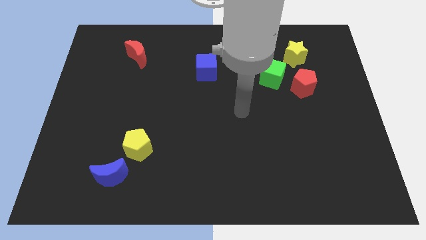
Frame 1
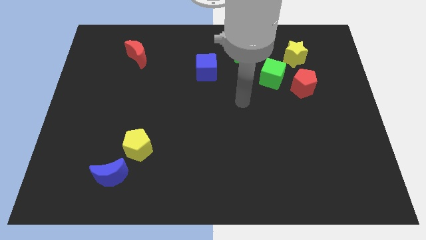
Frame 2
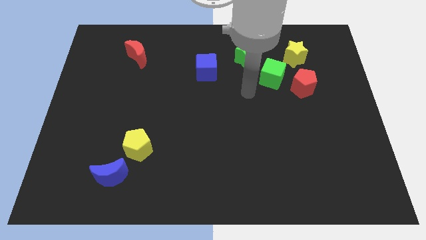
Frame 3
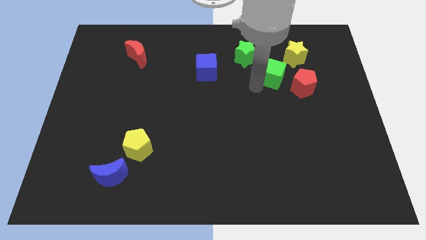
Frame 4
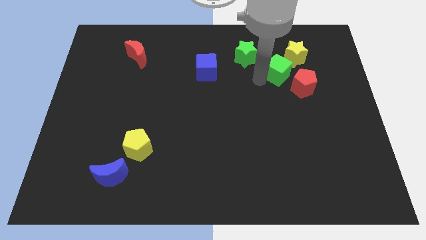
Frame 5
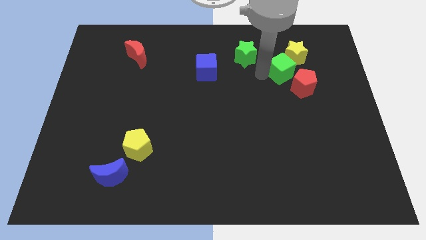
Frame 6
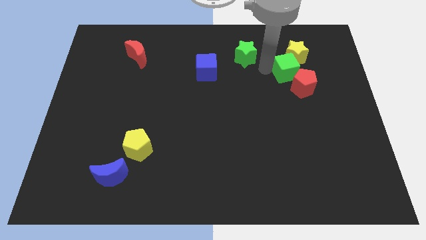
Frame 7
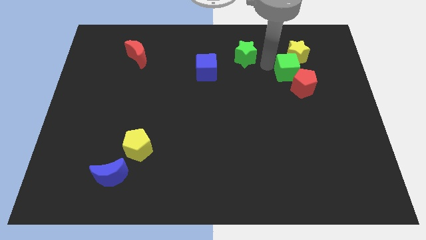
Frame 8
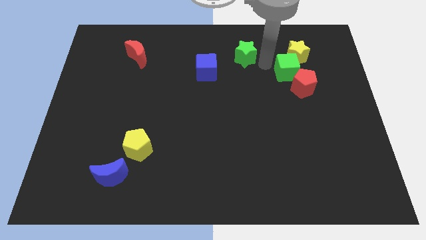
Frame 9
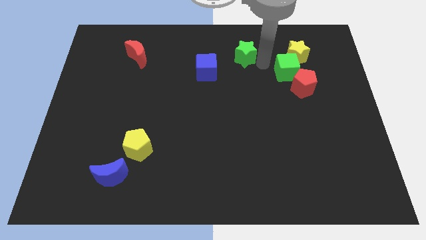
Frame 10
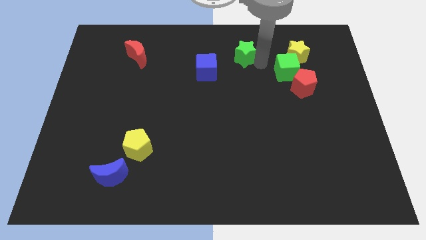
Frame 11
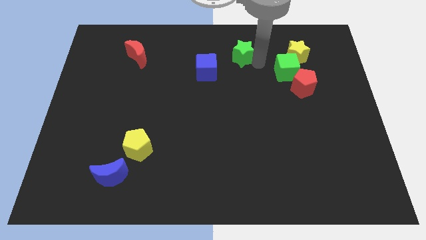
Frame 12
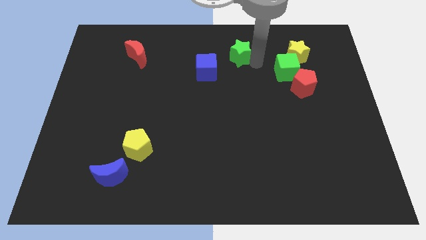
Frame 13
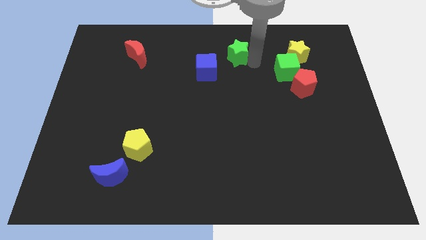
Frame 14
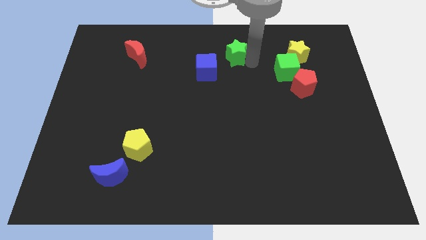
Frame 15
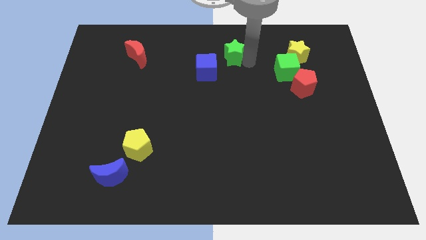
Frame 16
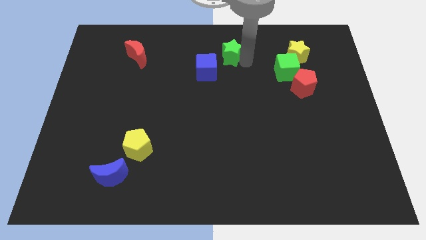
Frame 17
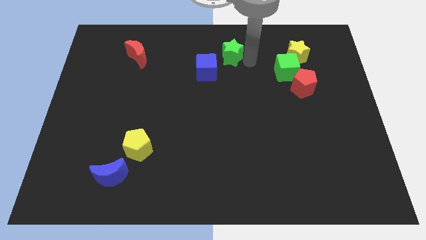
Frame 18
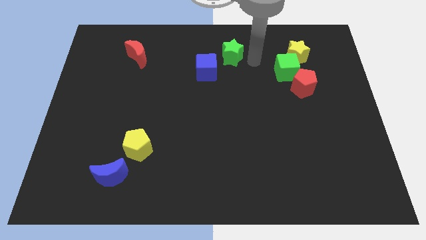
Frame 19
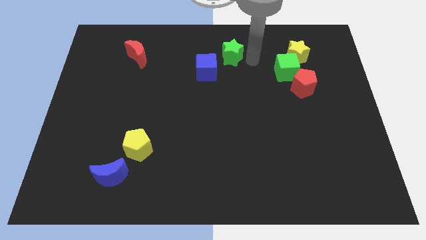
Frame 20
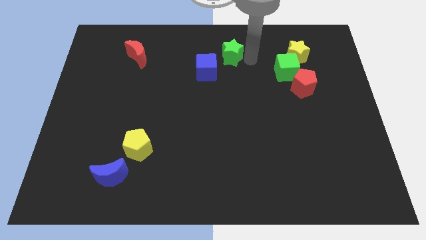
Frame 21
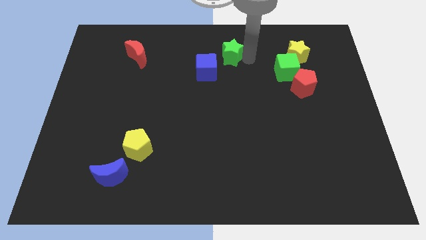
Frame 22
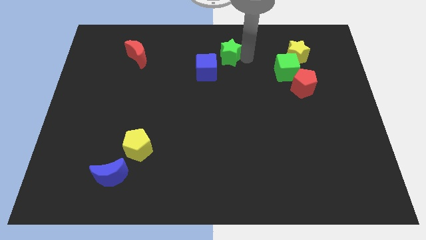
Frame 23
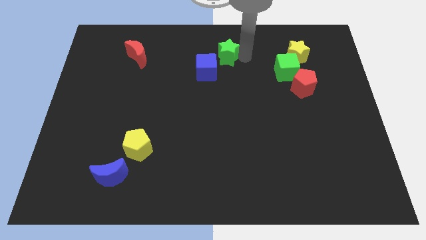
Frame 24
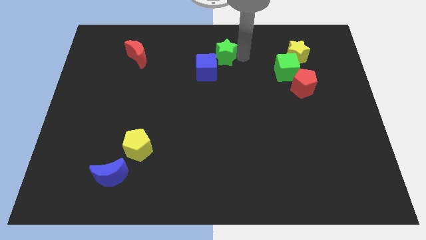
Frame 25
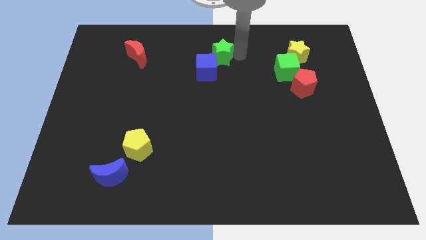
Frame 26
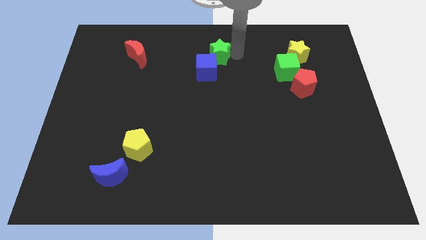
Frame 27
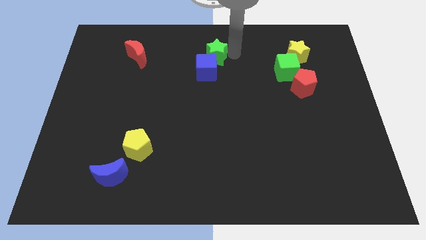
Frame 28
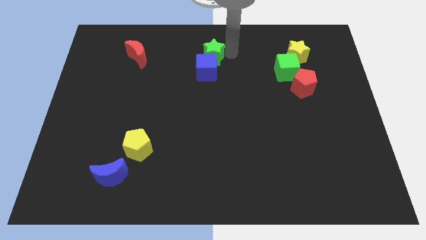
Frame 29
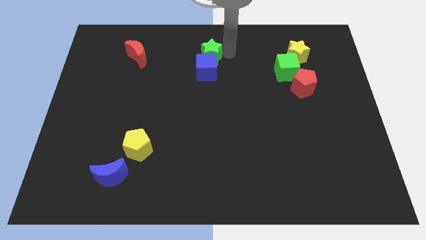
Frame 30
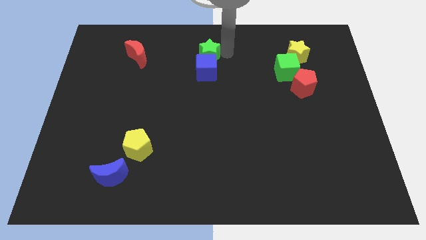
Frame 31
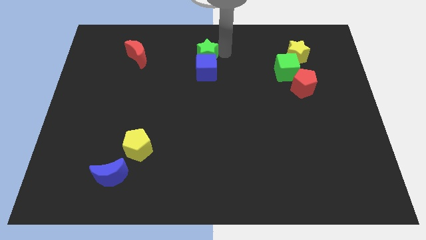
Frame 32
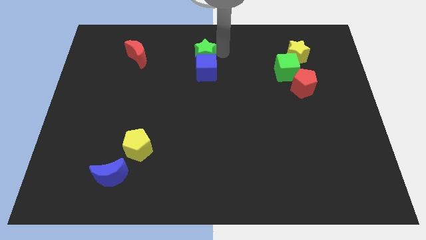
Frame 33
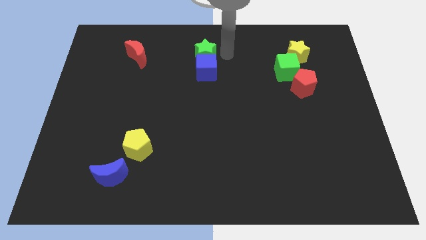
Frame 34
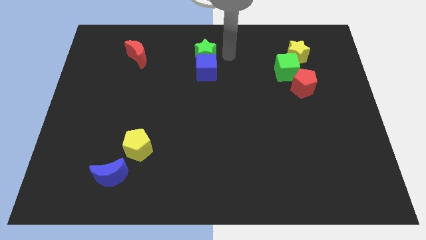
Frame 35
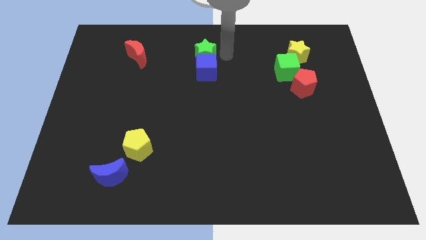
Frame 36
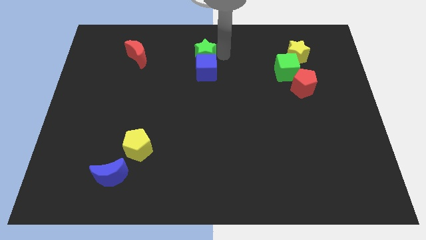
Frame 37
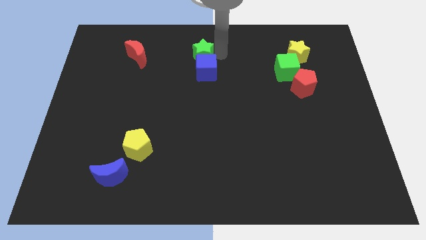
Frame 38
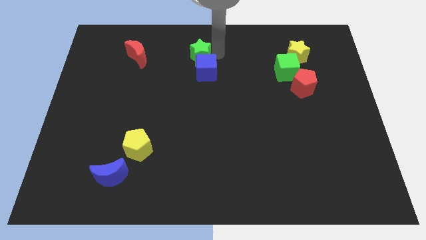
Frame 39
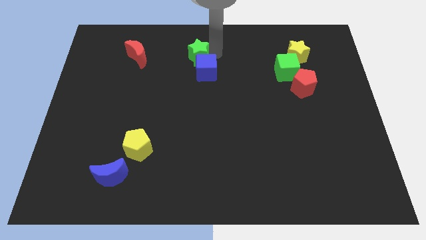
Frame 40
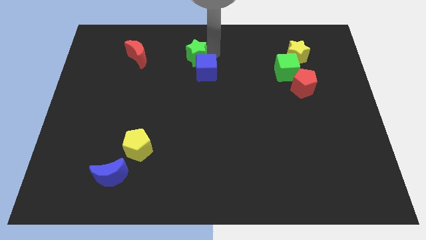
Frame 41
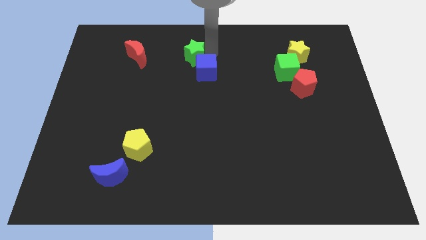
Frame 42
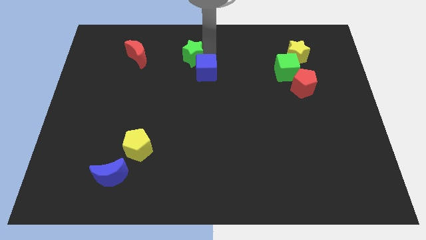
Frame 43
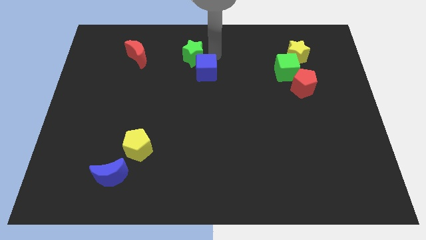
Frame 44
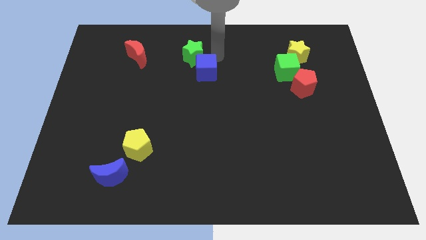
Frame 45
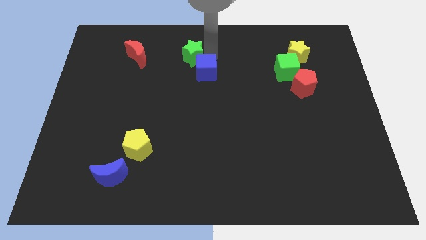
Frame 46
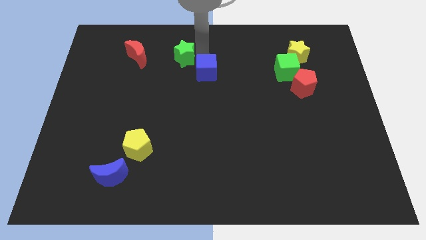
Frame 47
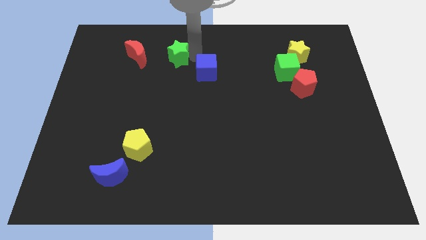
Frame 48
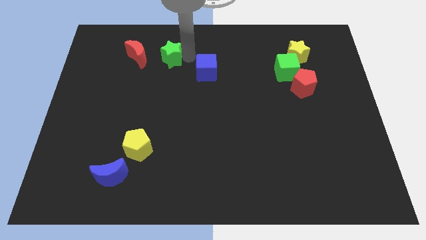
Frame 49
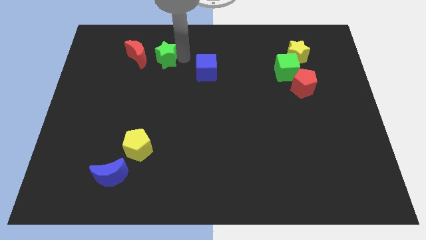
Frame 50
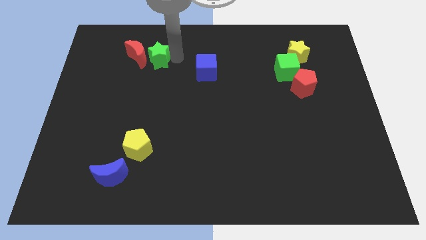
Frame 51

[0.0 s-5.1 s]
push the green star next to the red moon

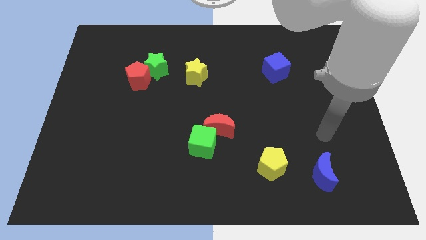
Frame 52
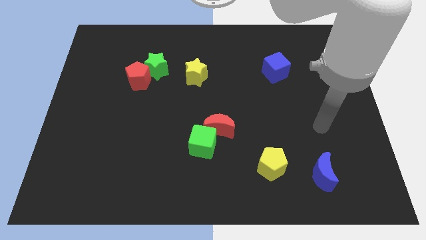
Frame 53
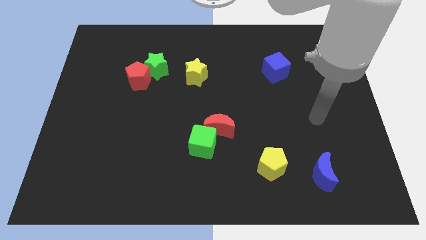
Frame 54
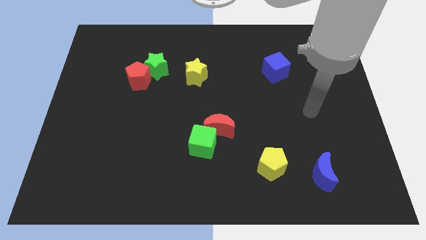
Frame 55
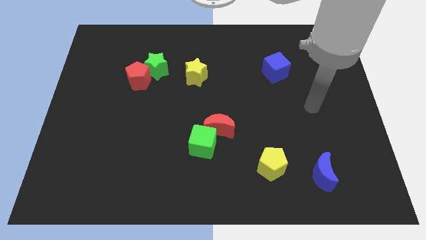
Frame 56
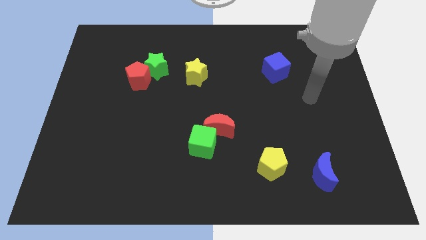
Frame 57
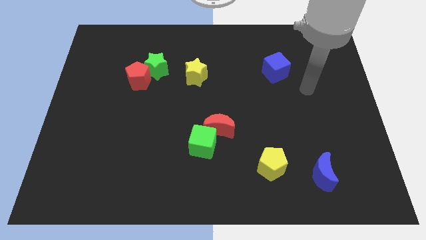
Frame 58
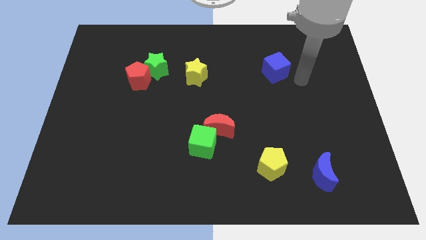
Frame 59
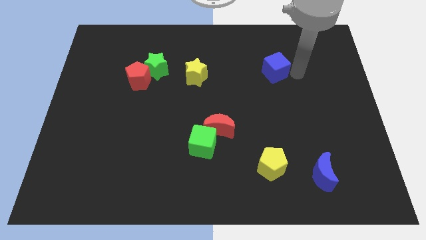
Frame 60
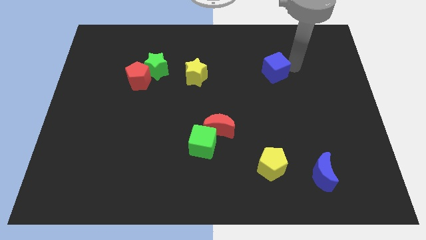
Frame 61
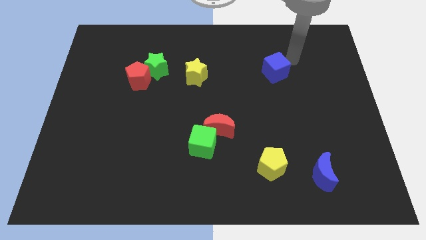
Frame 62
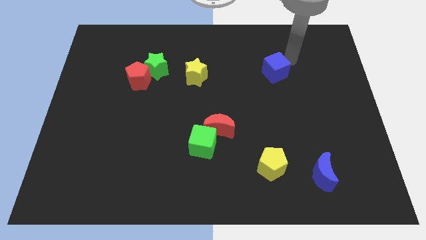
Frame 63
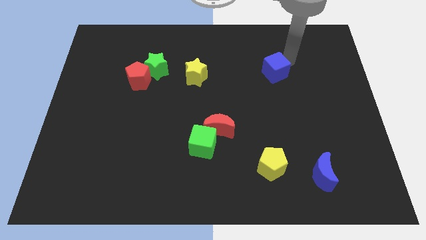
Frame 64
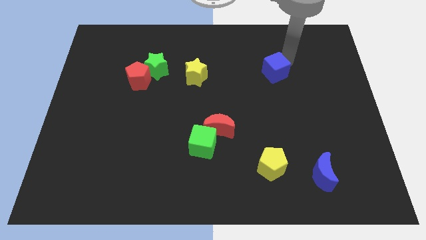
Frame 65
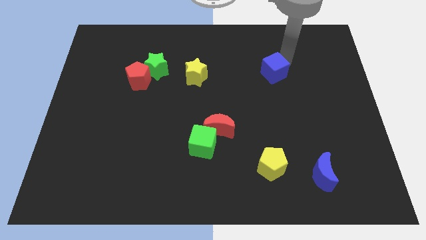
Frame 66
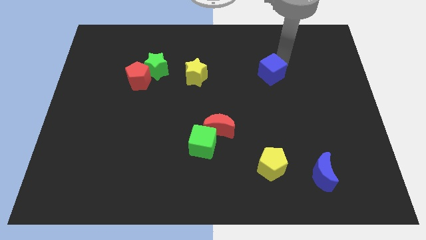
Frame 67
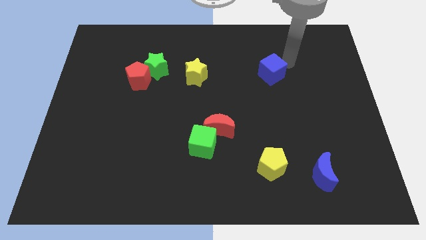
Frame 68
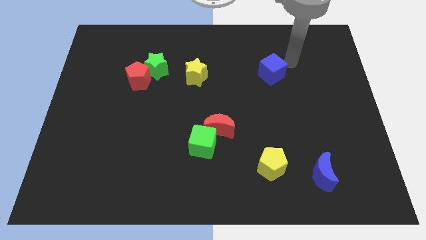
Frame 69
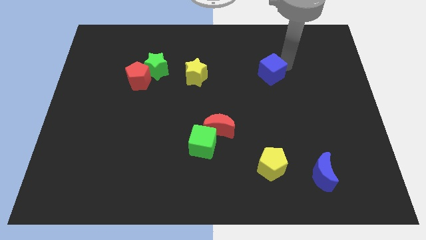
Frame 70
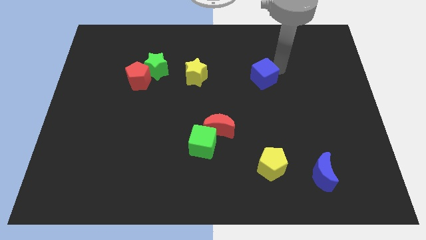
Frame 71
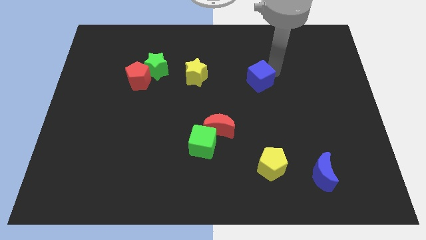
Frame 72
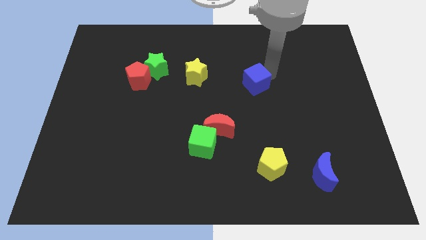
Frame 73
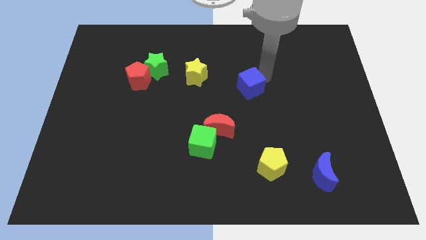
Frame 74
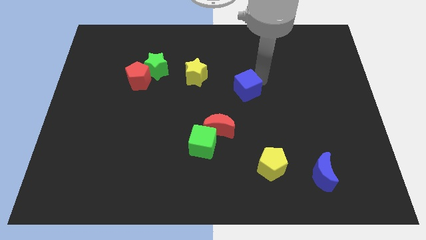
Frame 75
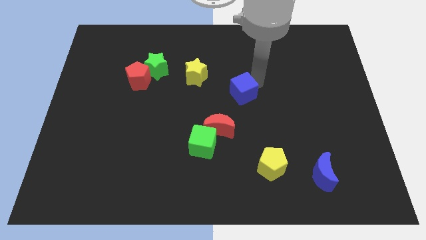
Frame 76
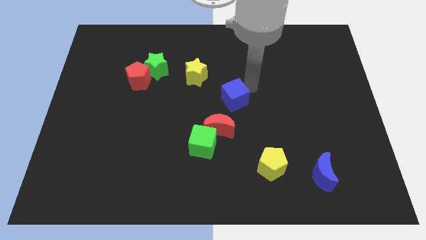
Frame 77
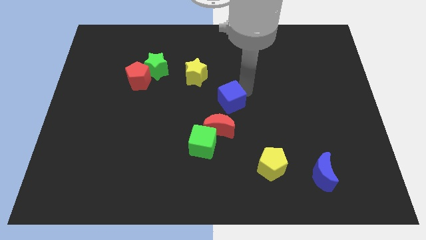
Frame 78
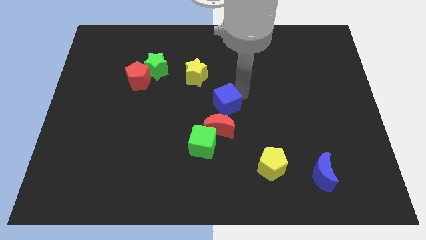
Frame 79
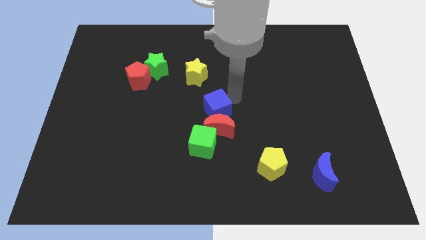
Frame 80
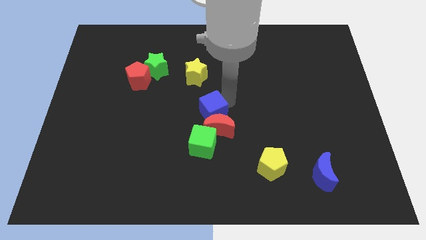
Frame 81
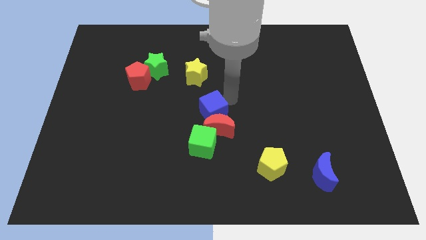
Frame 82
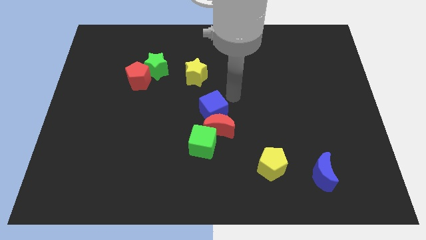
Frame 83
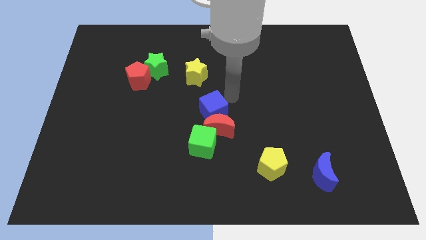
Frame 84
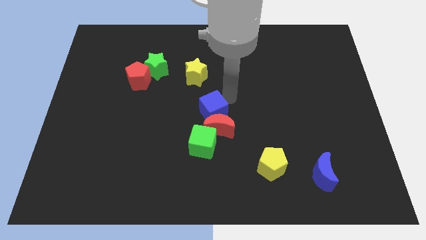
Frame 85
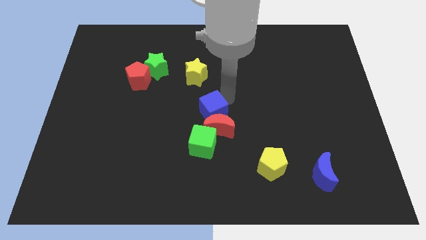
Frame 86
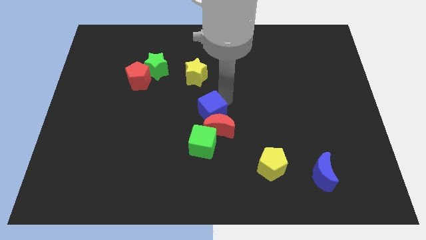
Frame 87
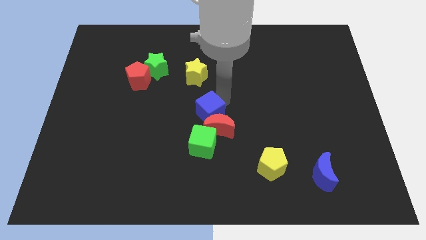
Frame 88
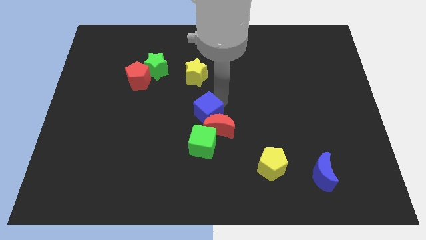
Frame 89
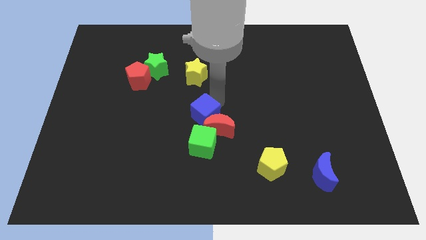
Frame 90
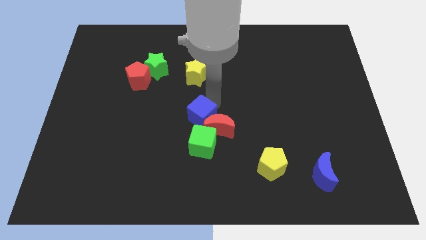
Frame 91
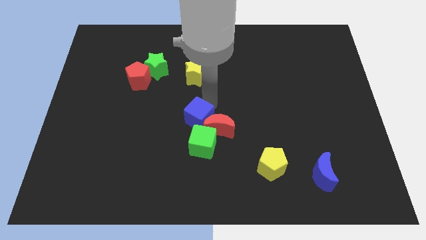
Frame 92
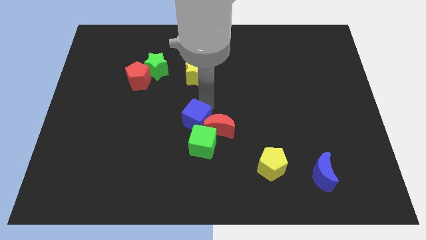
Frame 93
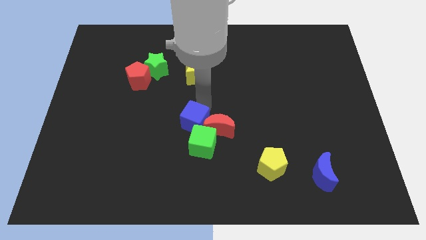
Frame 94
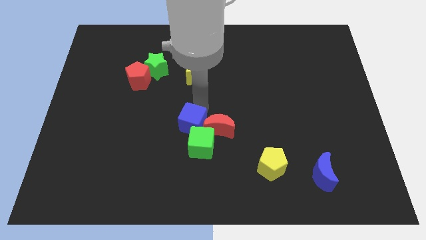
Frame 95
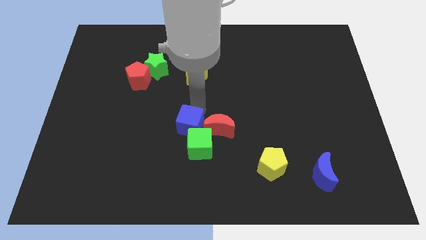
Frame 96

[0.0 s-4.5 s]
put the blue cube close to the green cube
